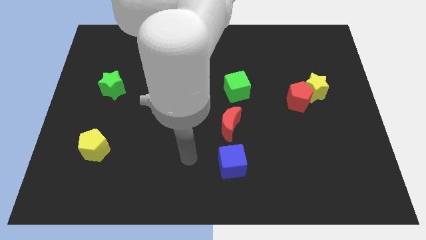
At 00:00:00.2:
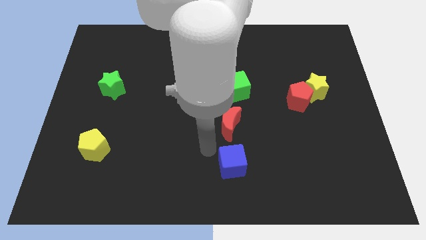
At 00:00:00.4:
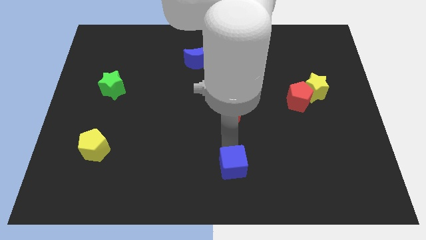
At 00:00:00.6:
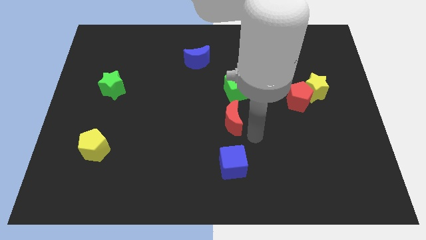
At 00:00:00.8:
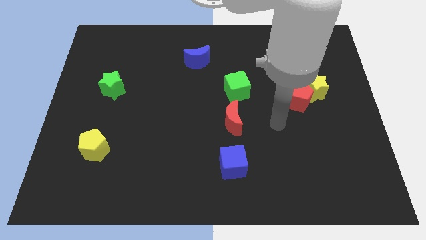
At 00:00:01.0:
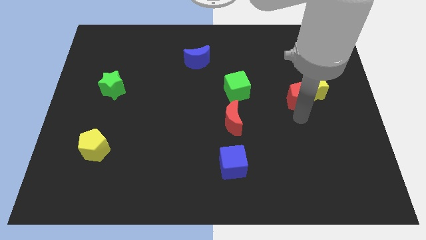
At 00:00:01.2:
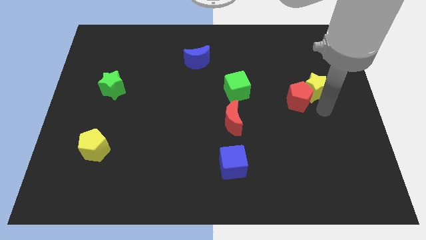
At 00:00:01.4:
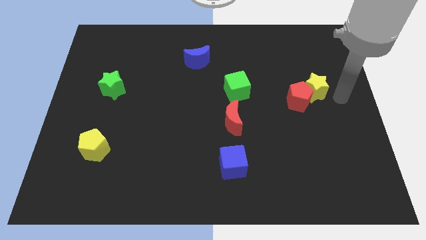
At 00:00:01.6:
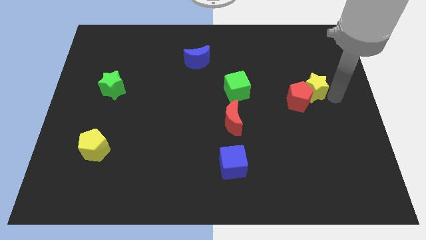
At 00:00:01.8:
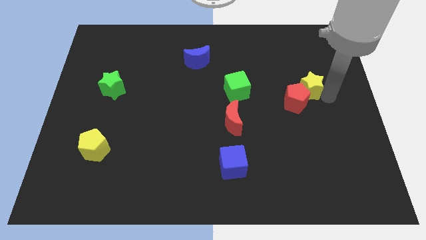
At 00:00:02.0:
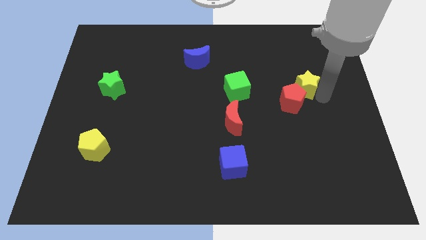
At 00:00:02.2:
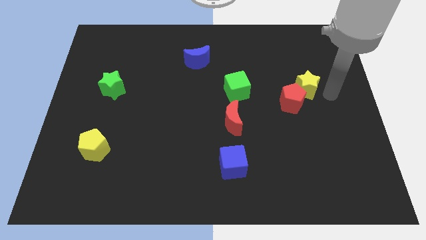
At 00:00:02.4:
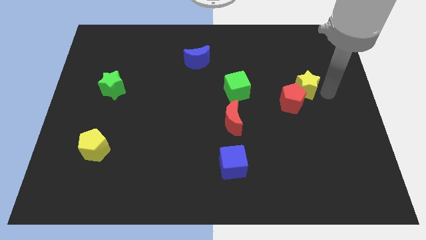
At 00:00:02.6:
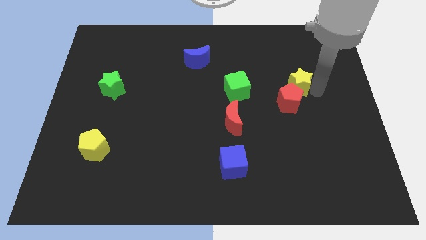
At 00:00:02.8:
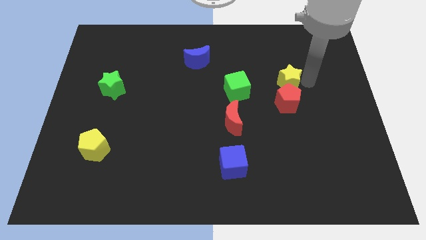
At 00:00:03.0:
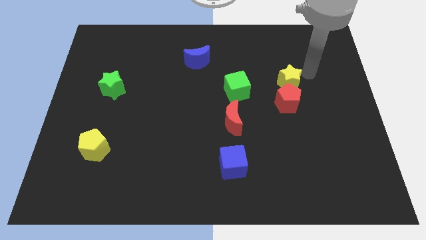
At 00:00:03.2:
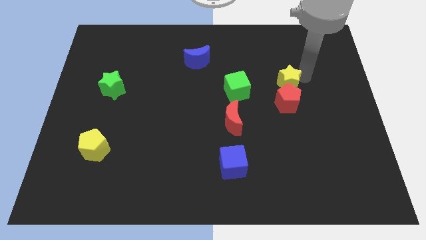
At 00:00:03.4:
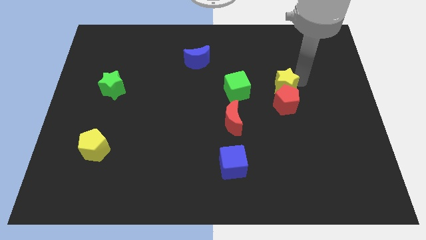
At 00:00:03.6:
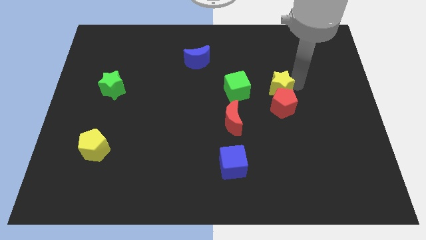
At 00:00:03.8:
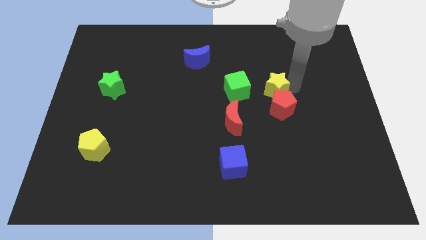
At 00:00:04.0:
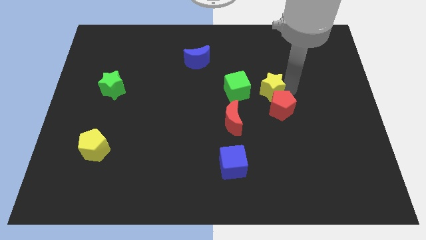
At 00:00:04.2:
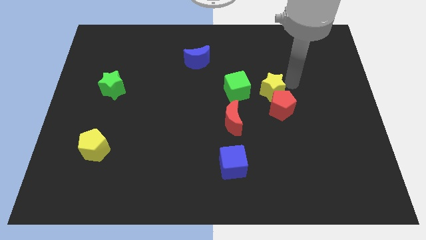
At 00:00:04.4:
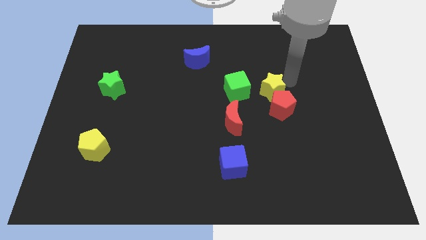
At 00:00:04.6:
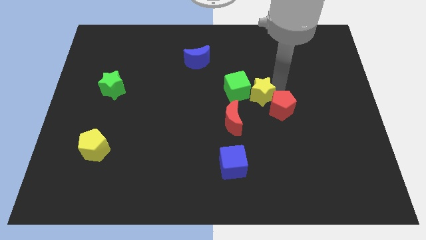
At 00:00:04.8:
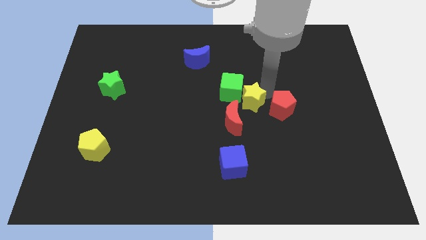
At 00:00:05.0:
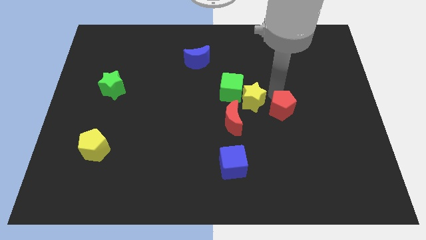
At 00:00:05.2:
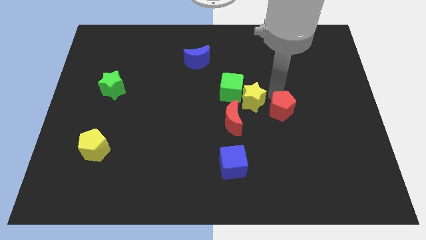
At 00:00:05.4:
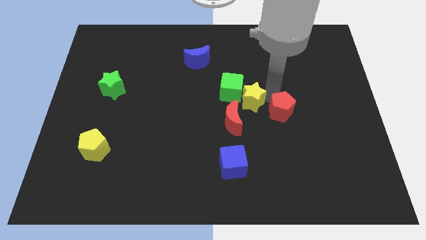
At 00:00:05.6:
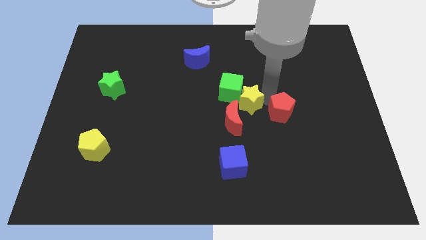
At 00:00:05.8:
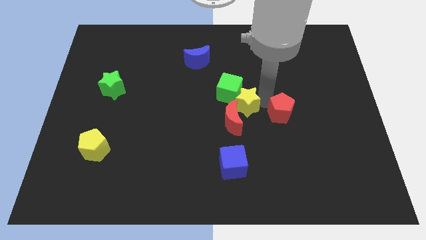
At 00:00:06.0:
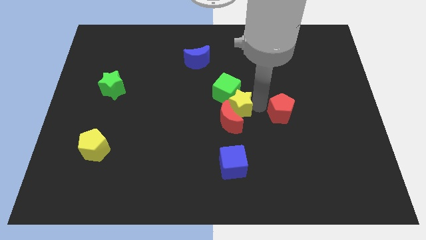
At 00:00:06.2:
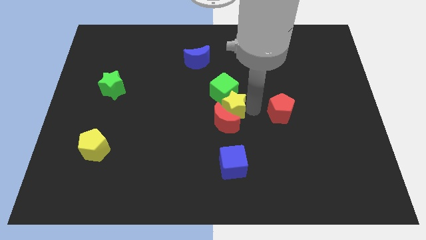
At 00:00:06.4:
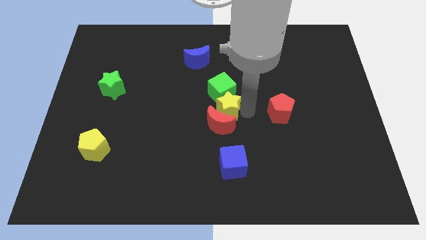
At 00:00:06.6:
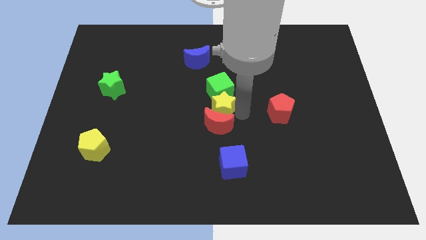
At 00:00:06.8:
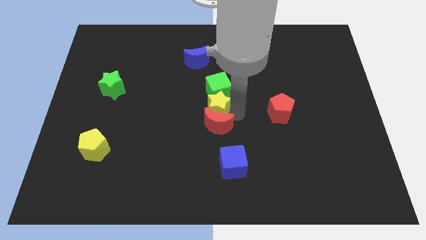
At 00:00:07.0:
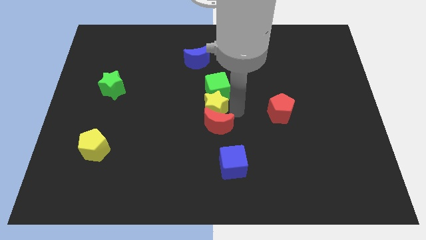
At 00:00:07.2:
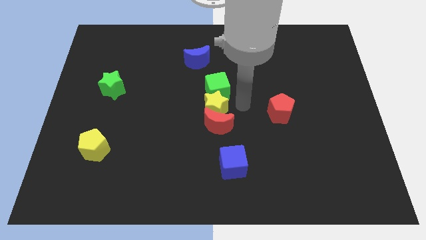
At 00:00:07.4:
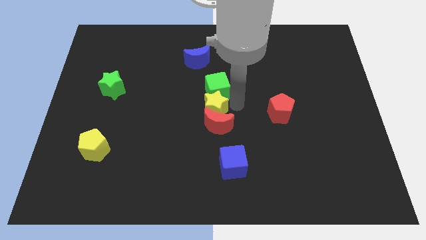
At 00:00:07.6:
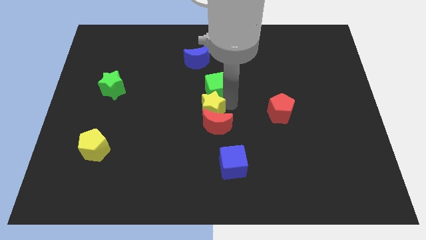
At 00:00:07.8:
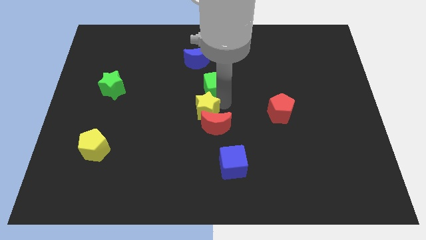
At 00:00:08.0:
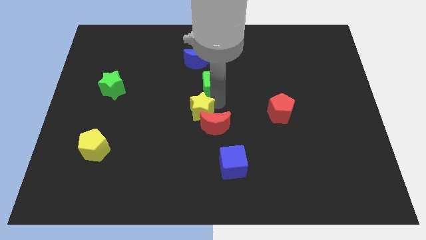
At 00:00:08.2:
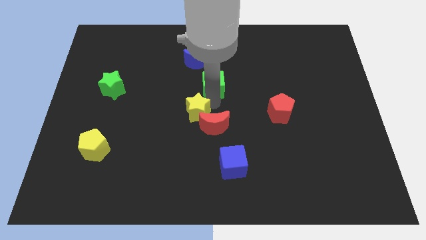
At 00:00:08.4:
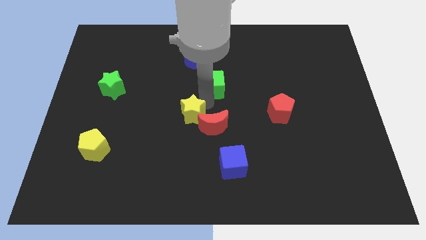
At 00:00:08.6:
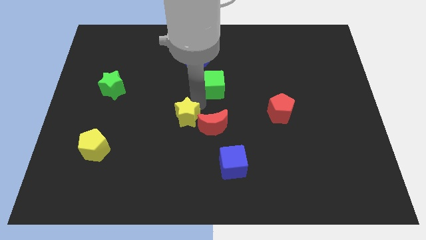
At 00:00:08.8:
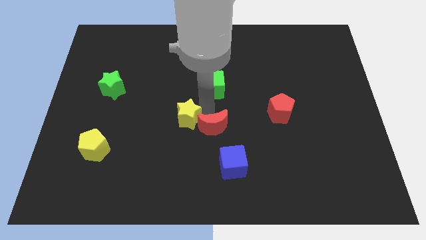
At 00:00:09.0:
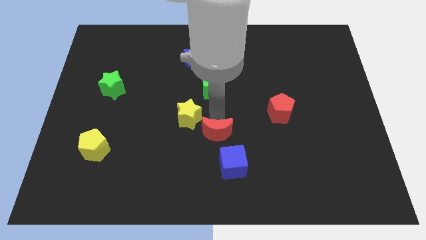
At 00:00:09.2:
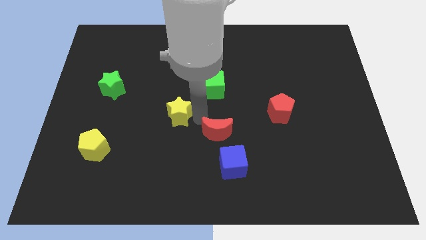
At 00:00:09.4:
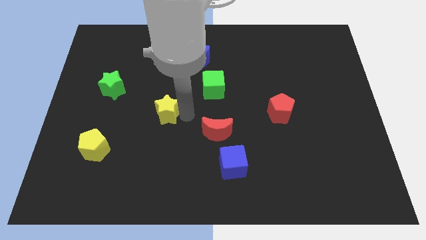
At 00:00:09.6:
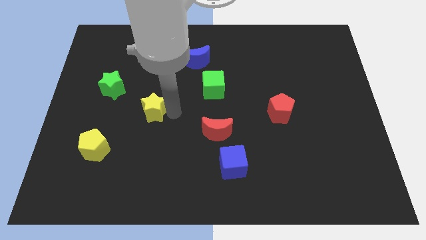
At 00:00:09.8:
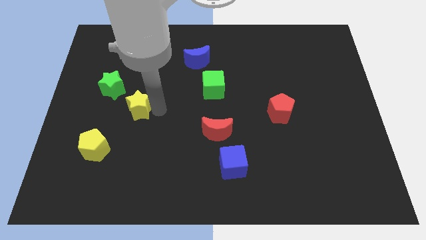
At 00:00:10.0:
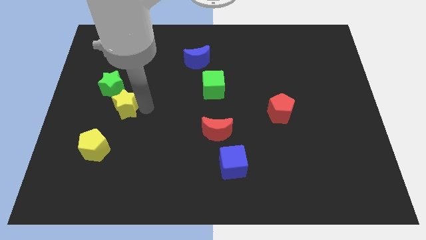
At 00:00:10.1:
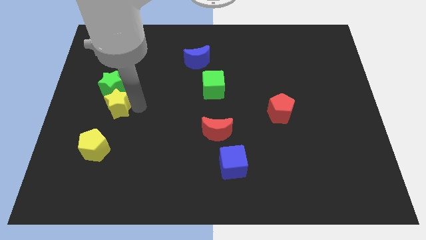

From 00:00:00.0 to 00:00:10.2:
put the yellow star to the top side of the yellow pentagon

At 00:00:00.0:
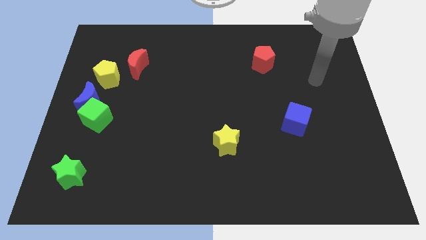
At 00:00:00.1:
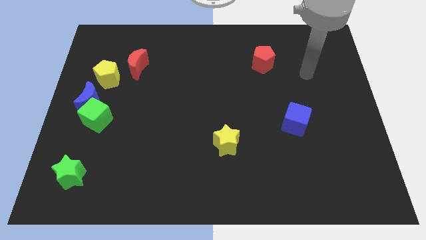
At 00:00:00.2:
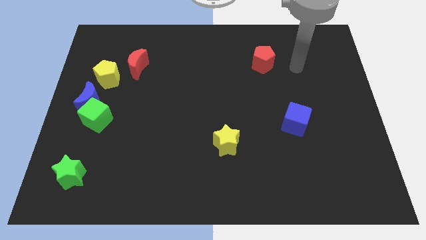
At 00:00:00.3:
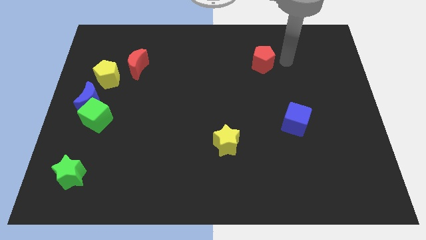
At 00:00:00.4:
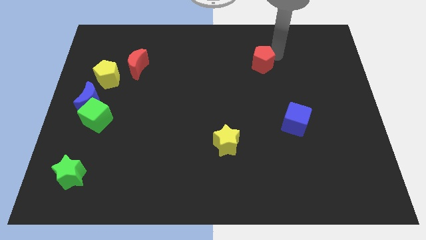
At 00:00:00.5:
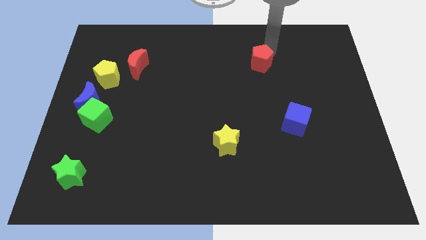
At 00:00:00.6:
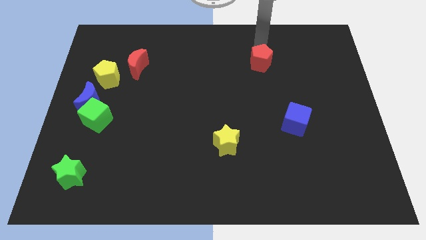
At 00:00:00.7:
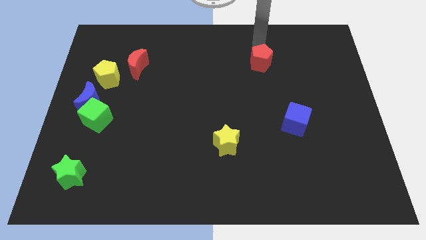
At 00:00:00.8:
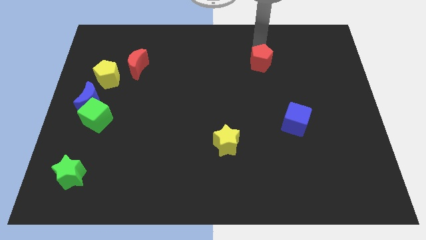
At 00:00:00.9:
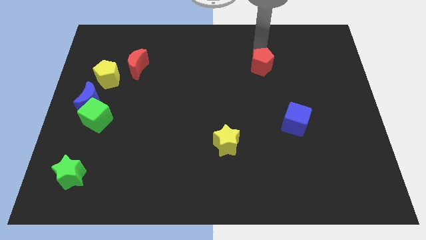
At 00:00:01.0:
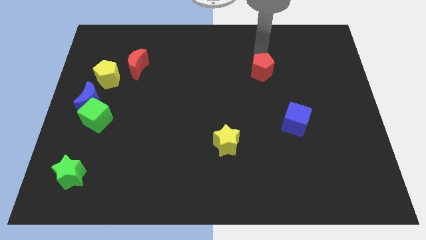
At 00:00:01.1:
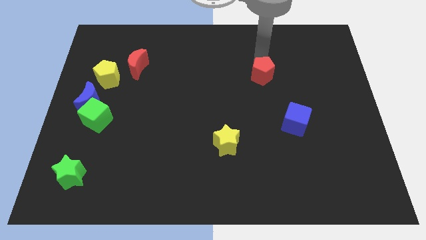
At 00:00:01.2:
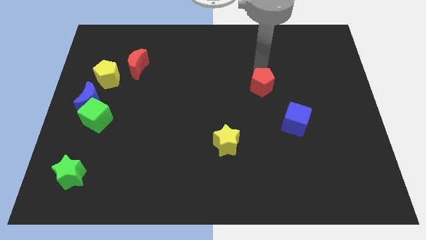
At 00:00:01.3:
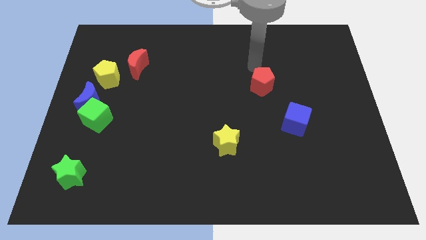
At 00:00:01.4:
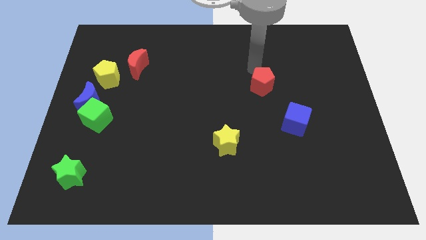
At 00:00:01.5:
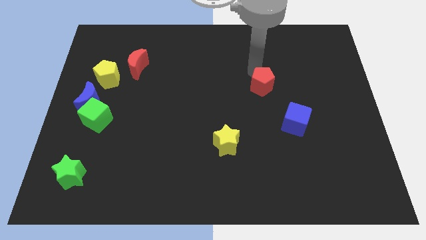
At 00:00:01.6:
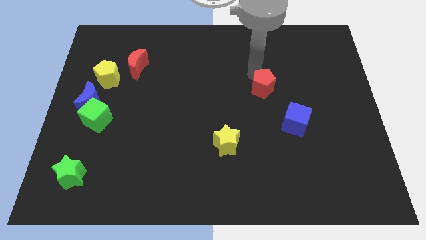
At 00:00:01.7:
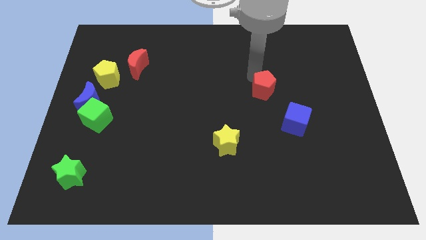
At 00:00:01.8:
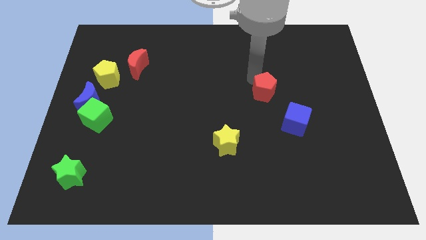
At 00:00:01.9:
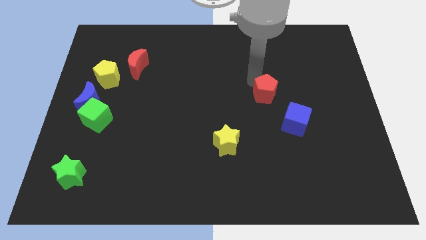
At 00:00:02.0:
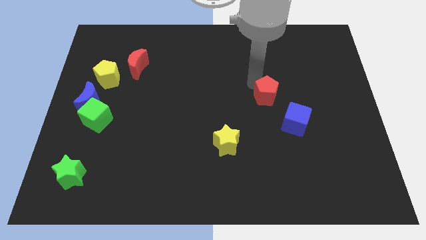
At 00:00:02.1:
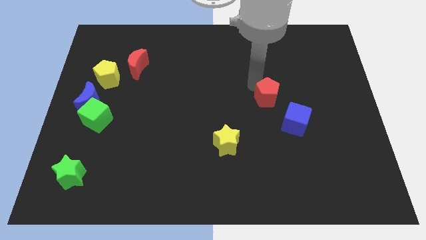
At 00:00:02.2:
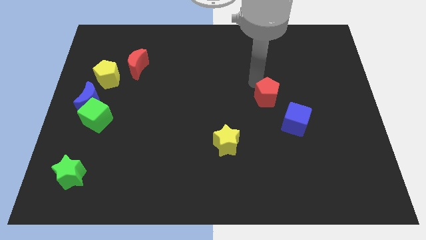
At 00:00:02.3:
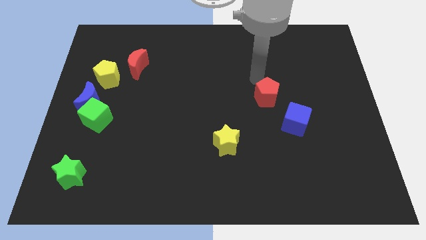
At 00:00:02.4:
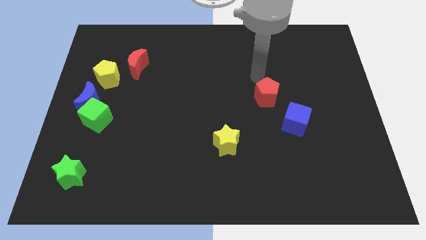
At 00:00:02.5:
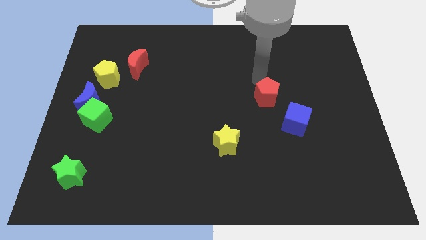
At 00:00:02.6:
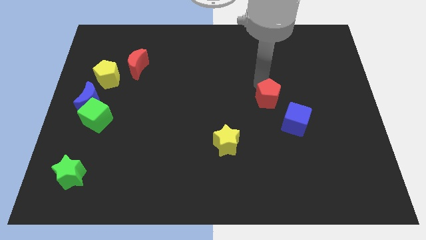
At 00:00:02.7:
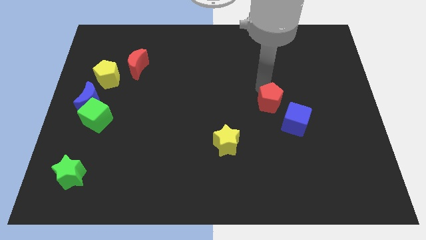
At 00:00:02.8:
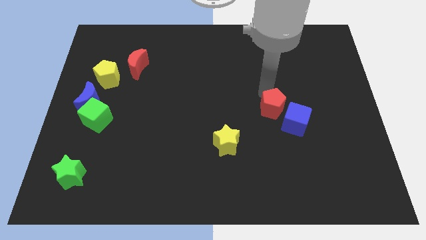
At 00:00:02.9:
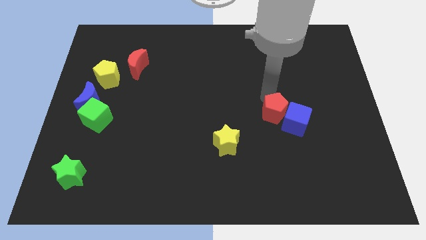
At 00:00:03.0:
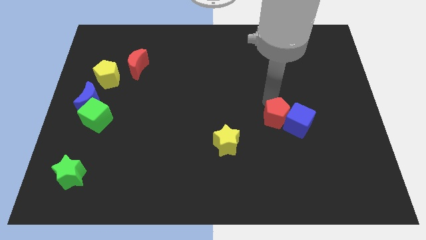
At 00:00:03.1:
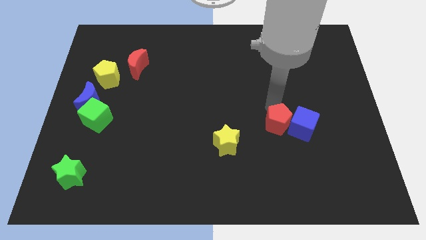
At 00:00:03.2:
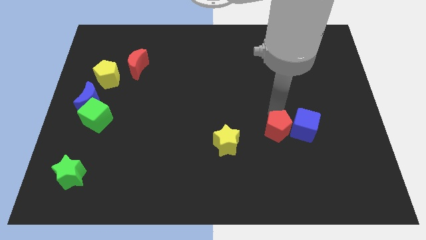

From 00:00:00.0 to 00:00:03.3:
slide the red pentagon to the right side of the yellow star
